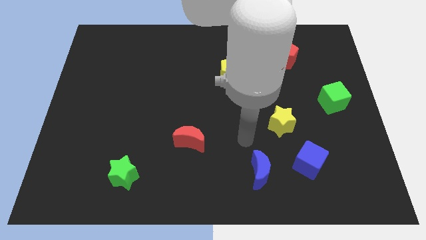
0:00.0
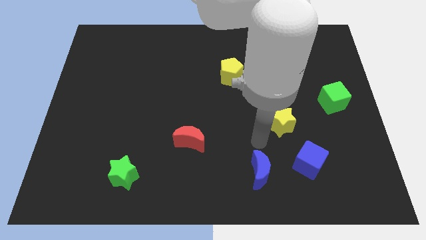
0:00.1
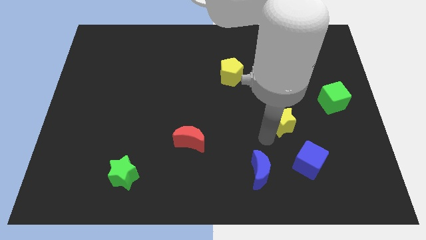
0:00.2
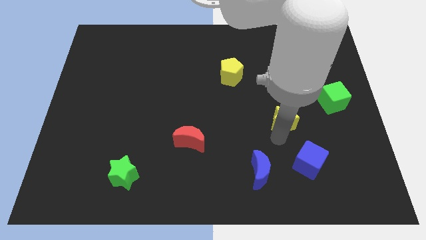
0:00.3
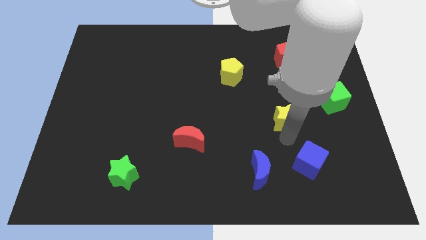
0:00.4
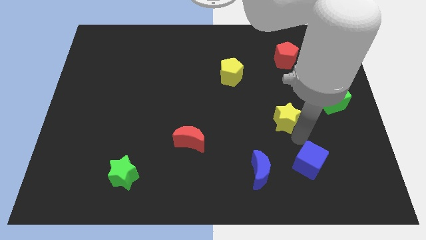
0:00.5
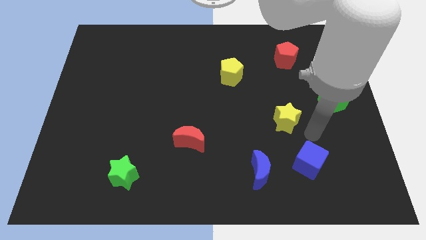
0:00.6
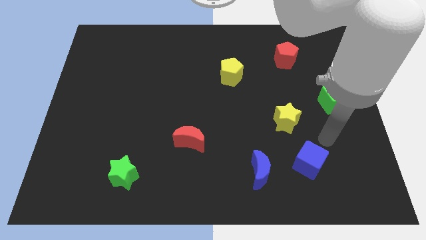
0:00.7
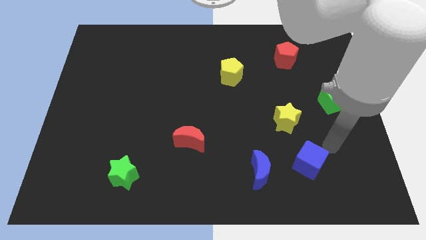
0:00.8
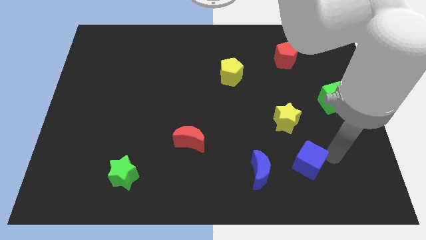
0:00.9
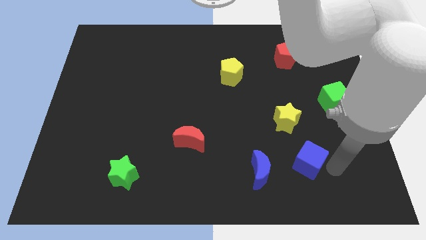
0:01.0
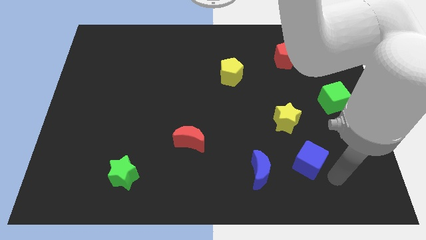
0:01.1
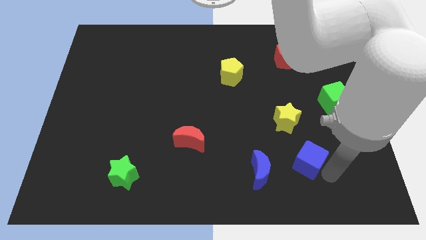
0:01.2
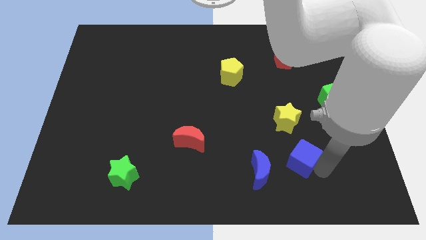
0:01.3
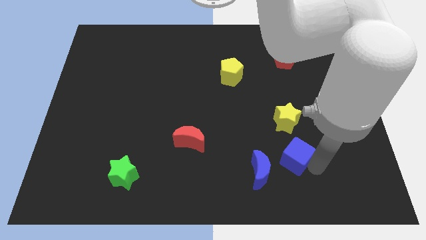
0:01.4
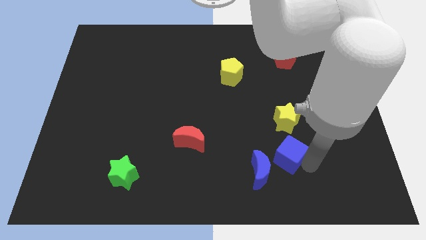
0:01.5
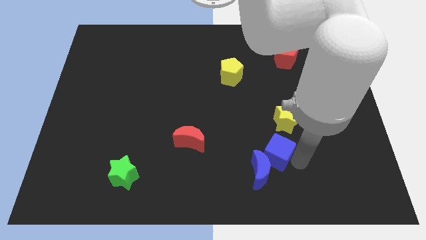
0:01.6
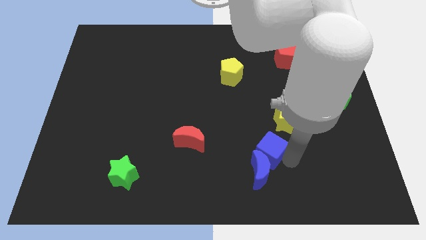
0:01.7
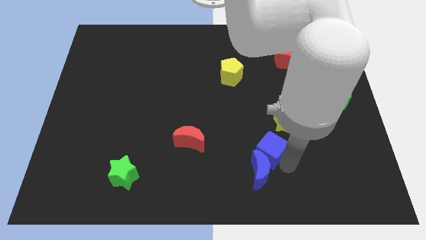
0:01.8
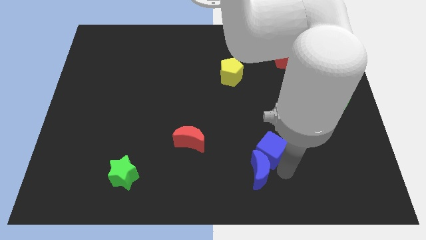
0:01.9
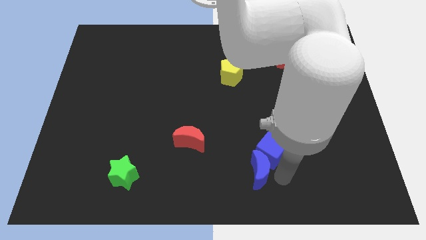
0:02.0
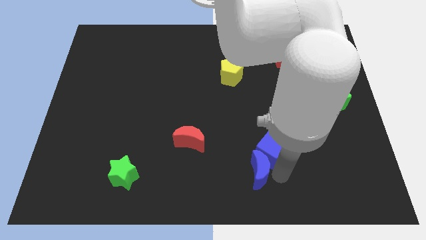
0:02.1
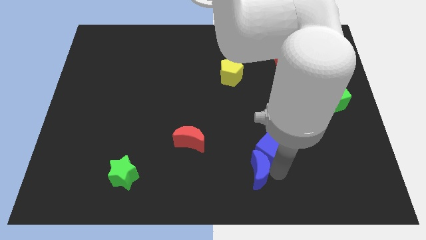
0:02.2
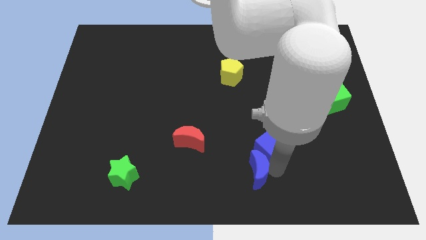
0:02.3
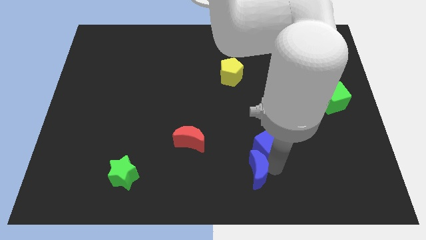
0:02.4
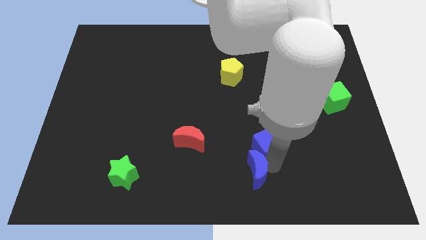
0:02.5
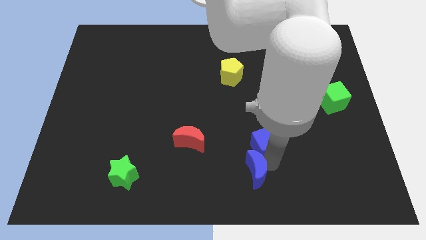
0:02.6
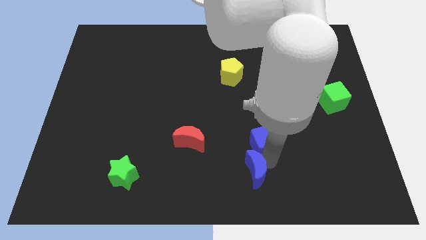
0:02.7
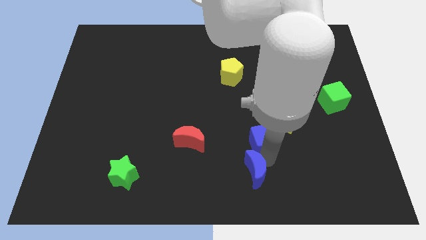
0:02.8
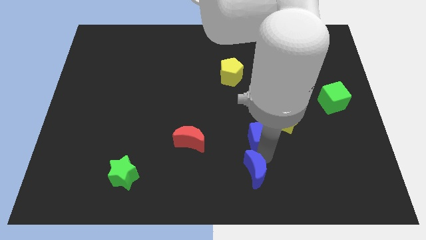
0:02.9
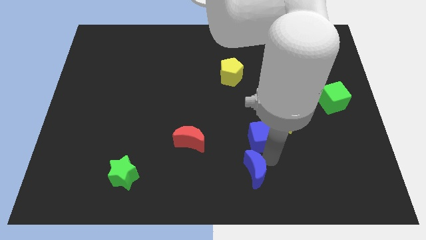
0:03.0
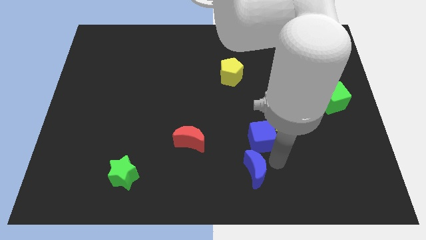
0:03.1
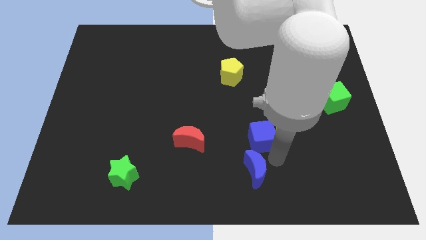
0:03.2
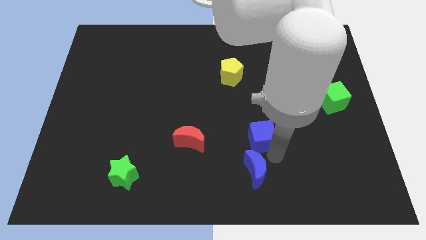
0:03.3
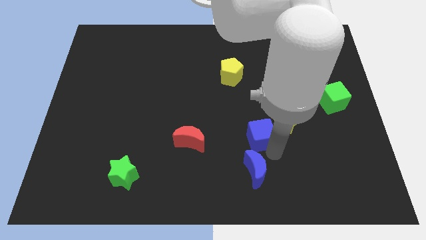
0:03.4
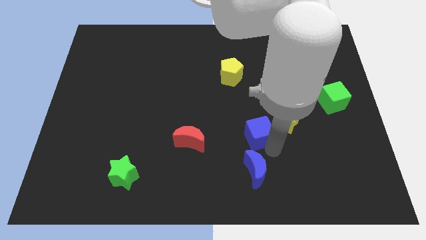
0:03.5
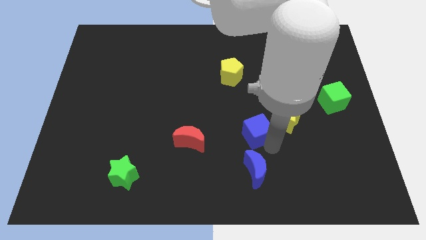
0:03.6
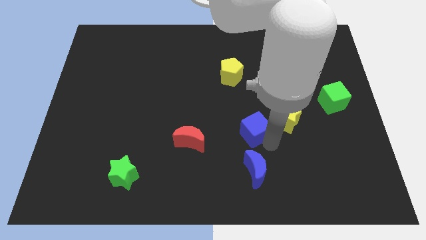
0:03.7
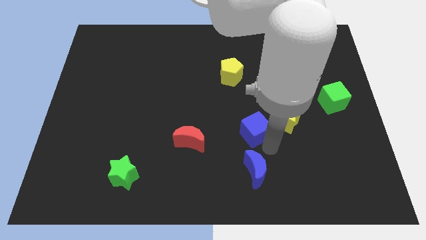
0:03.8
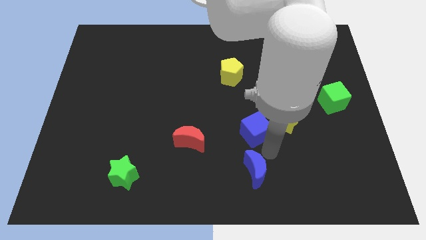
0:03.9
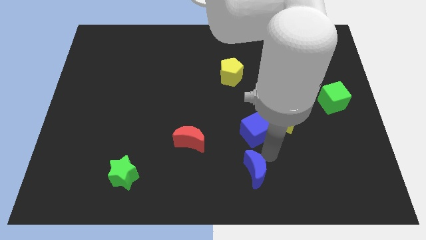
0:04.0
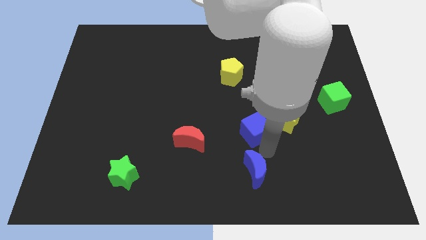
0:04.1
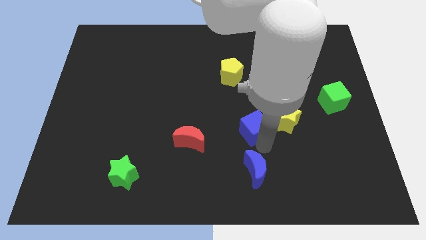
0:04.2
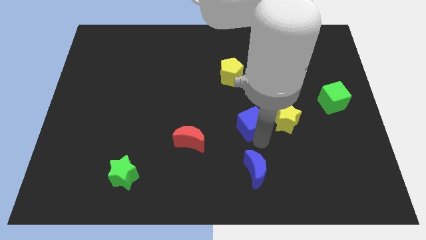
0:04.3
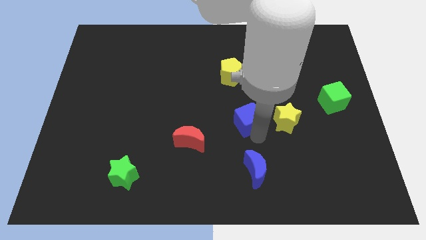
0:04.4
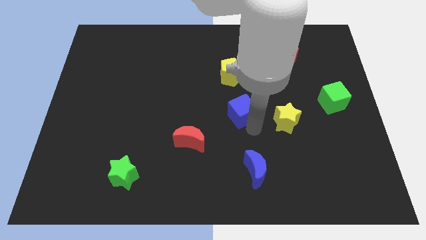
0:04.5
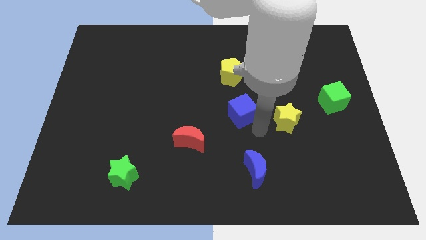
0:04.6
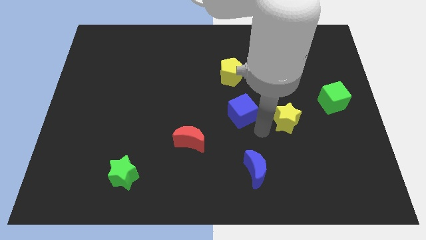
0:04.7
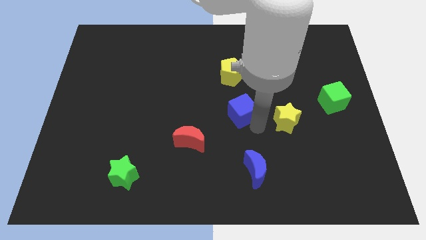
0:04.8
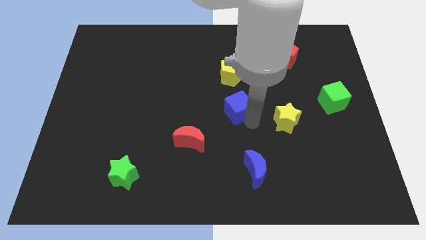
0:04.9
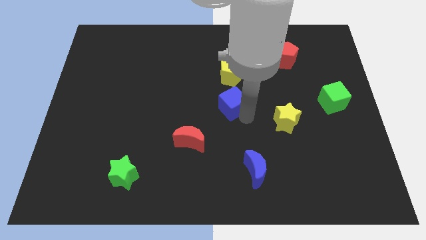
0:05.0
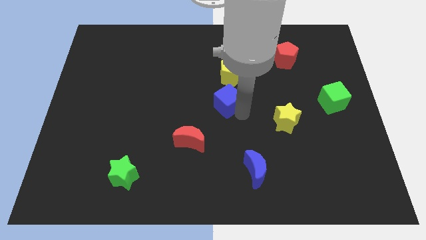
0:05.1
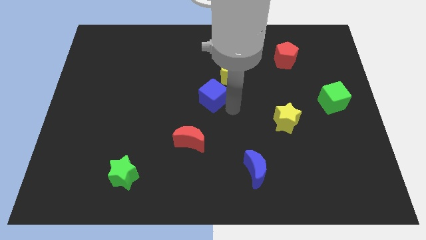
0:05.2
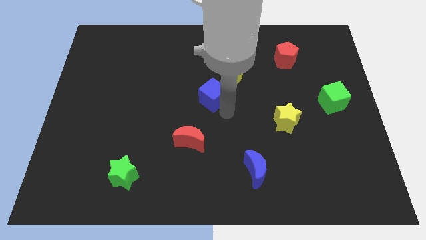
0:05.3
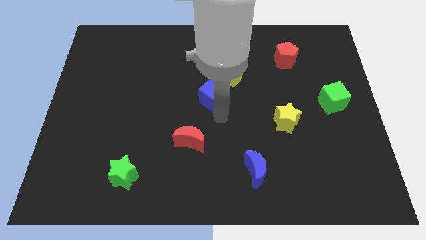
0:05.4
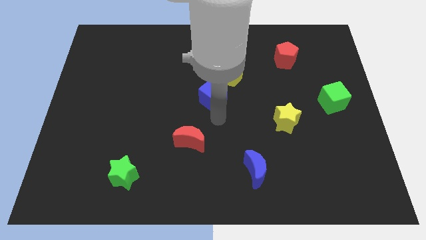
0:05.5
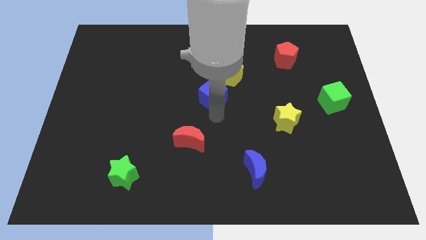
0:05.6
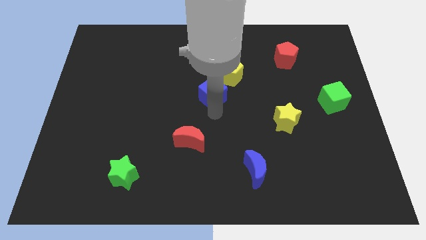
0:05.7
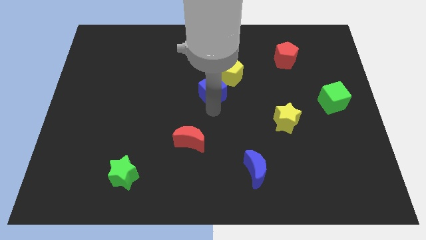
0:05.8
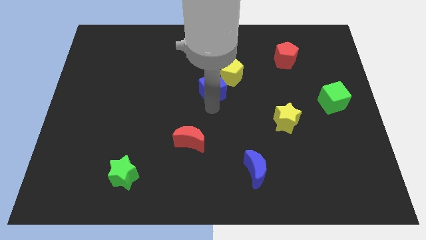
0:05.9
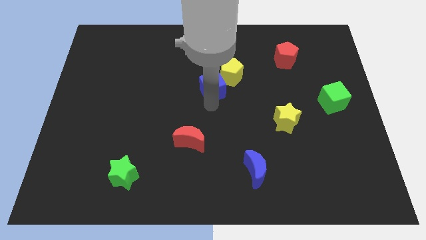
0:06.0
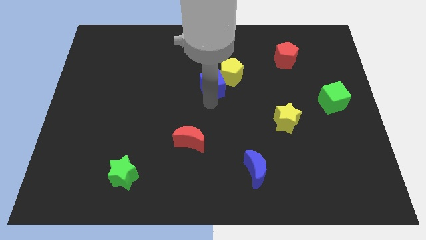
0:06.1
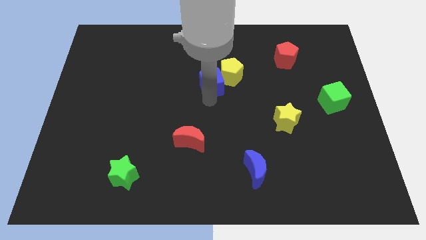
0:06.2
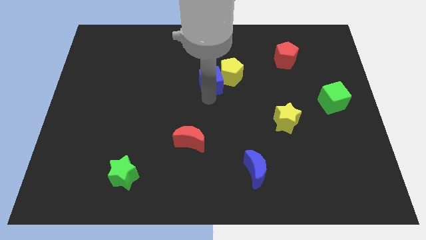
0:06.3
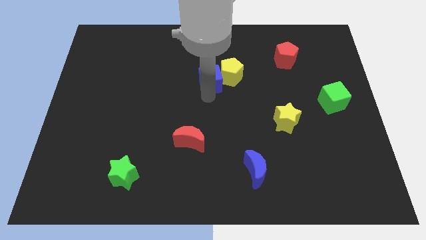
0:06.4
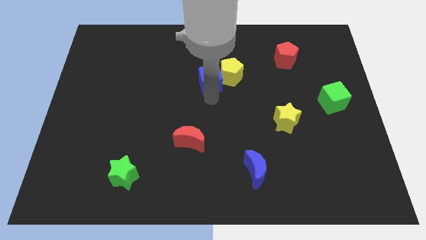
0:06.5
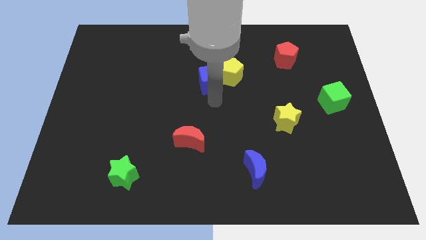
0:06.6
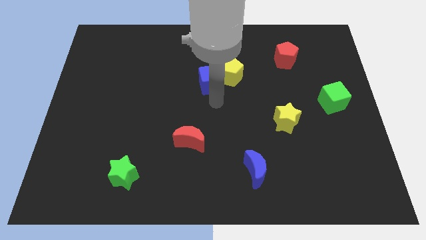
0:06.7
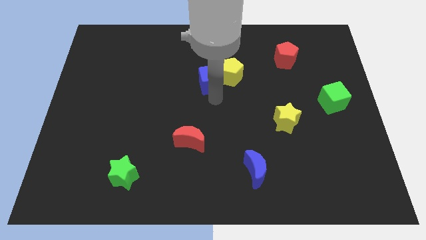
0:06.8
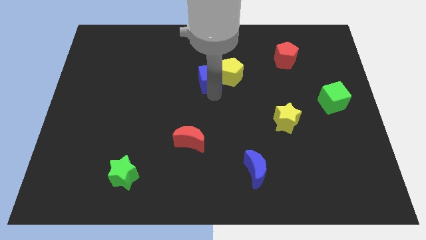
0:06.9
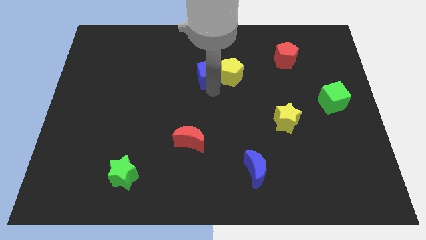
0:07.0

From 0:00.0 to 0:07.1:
slide the blue cube to the top left side of the yellow pentagon

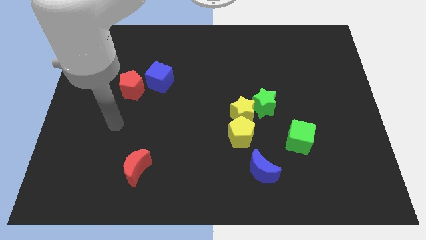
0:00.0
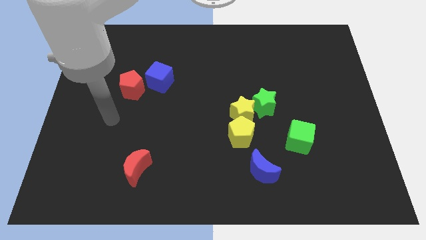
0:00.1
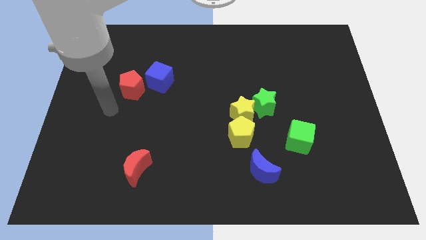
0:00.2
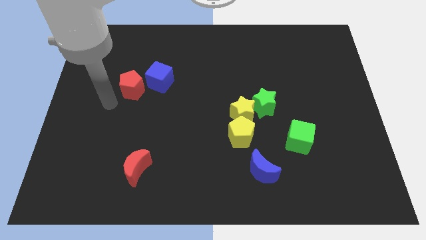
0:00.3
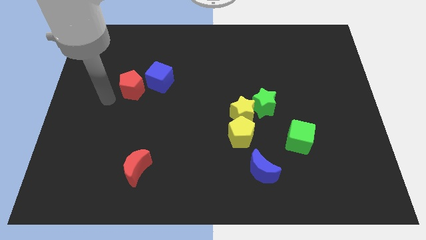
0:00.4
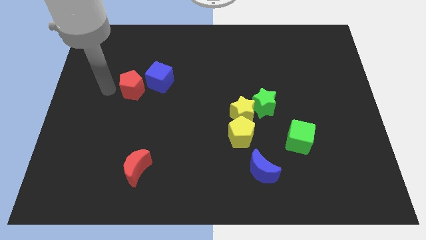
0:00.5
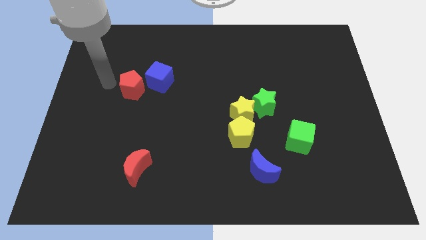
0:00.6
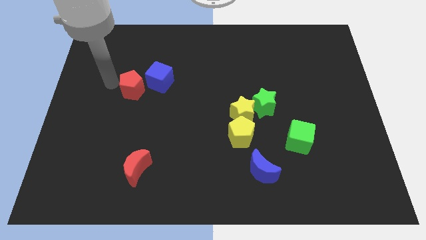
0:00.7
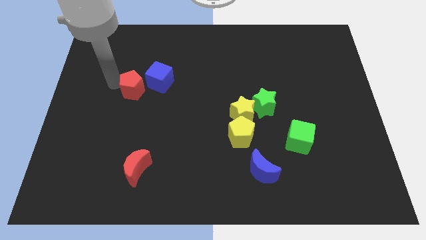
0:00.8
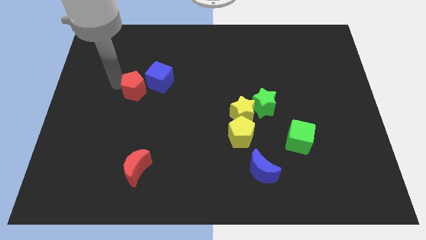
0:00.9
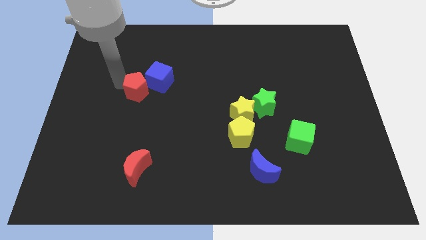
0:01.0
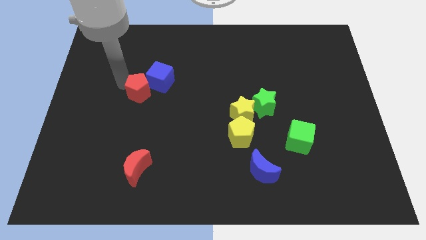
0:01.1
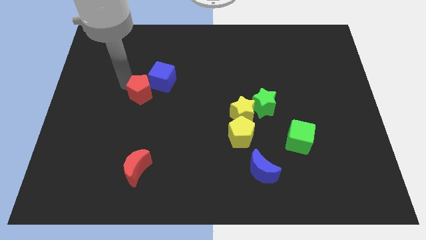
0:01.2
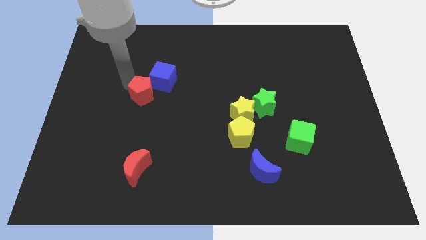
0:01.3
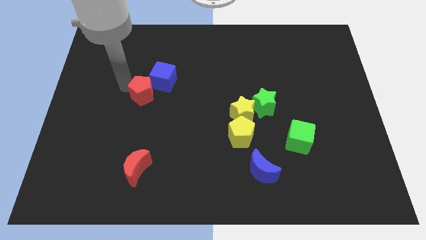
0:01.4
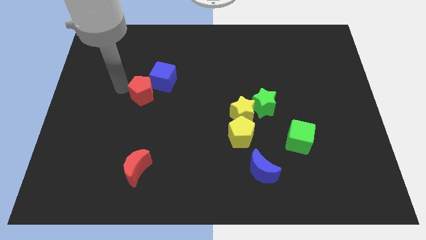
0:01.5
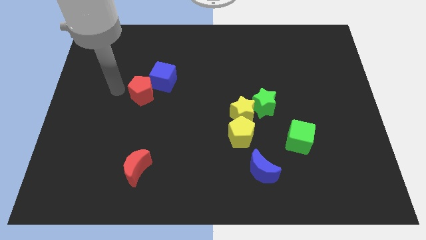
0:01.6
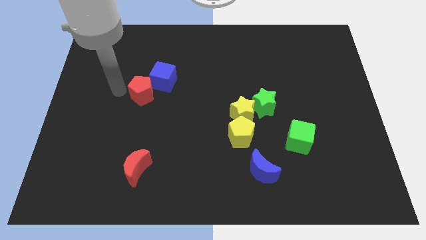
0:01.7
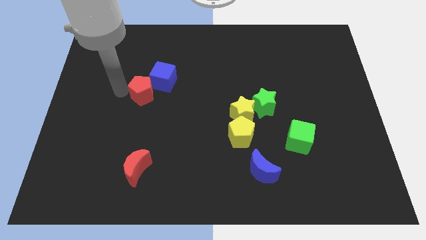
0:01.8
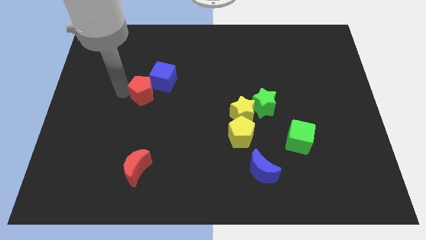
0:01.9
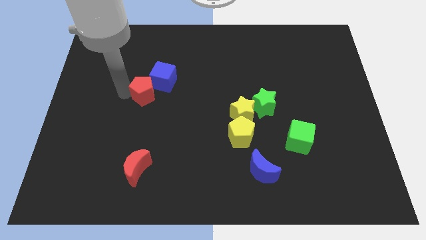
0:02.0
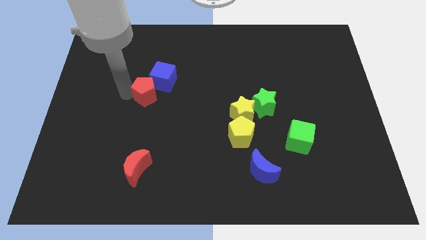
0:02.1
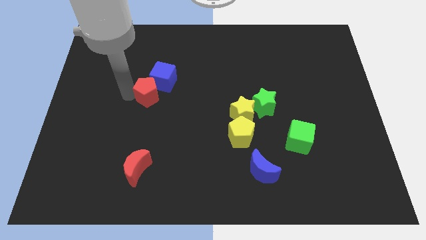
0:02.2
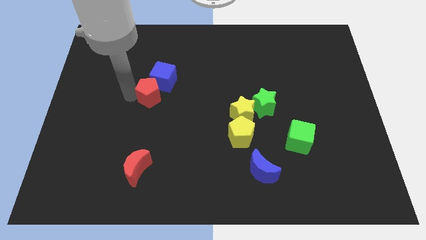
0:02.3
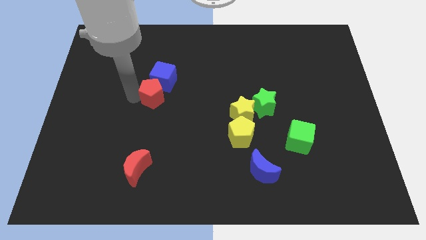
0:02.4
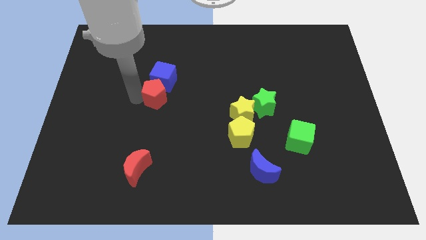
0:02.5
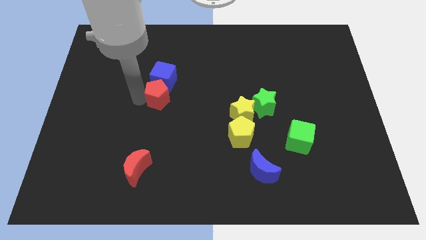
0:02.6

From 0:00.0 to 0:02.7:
put the red pentagon to the bottom right side of the blue cube
